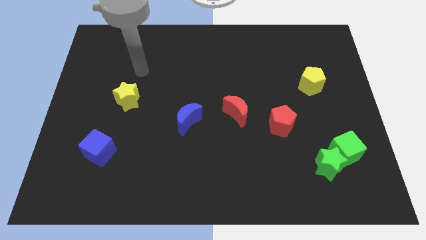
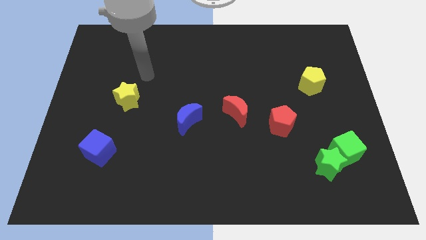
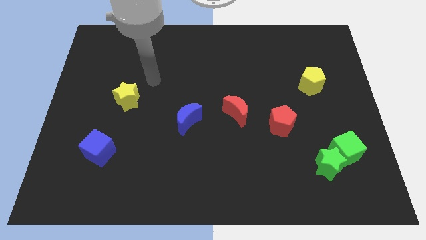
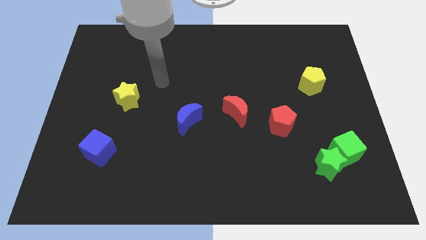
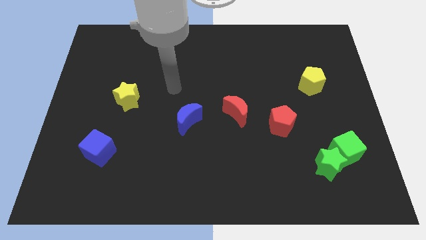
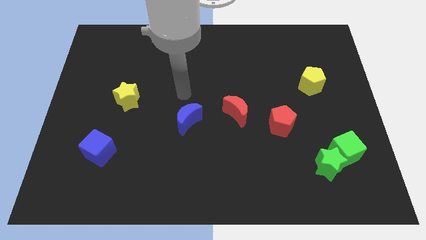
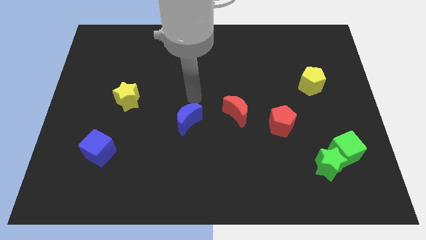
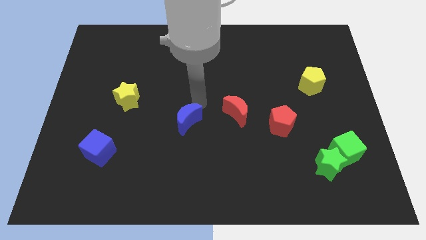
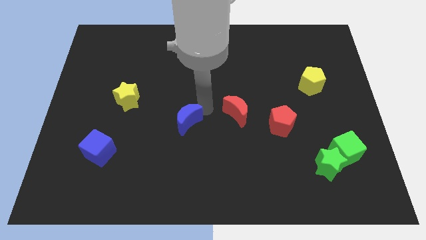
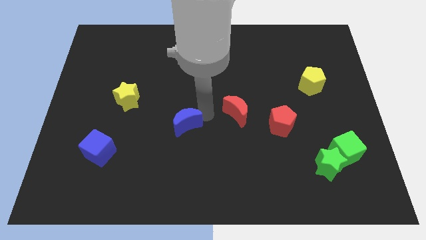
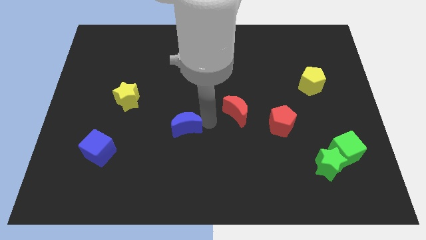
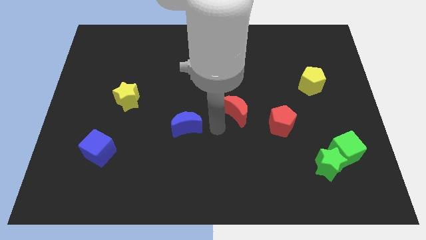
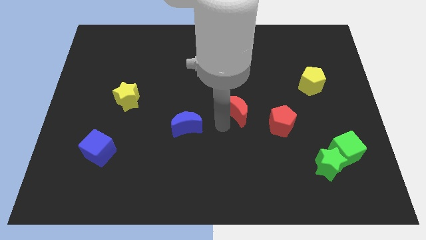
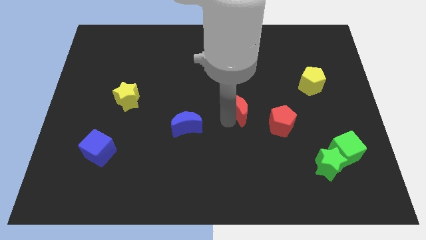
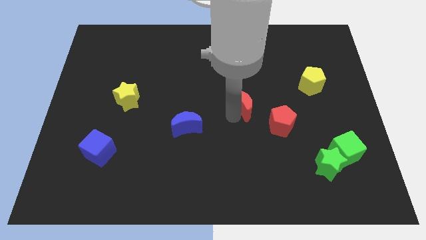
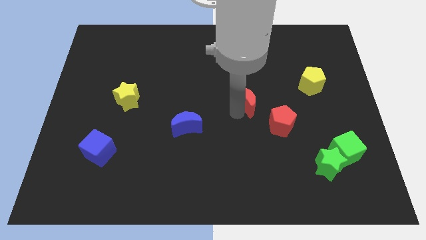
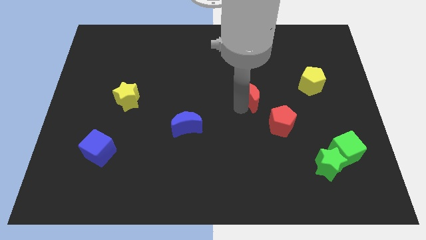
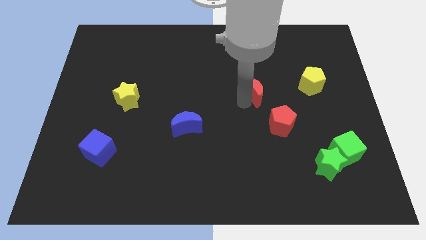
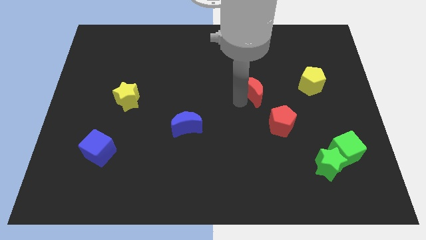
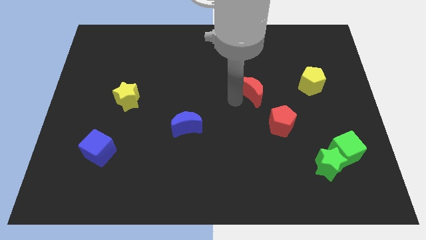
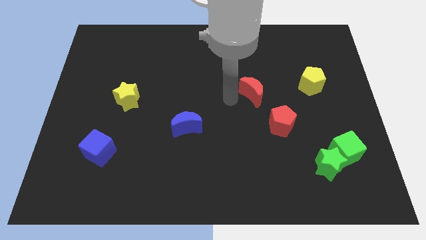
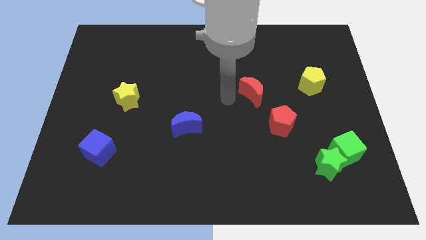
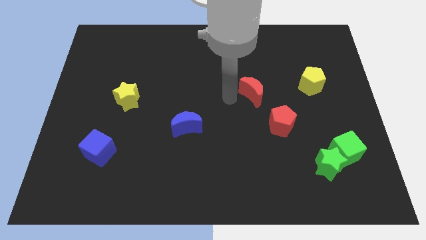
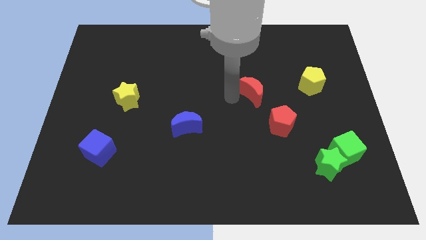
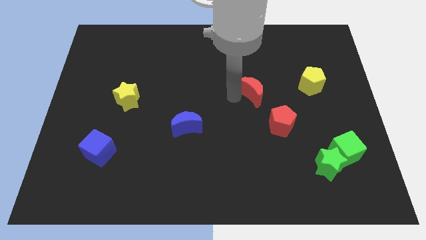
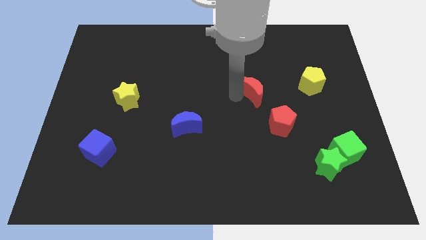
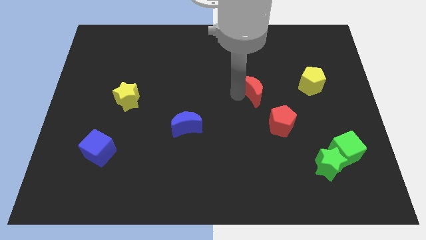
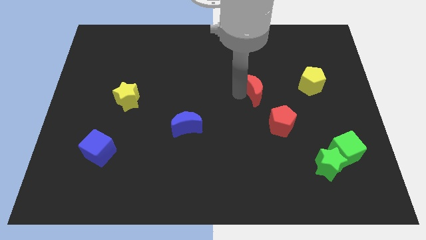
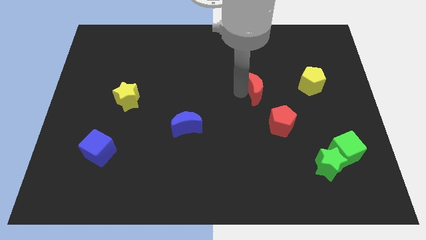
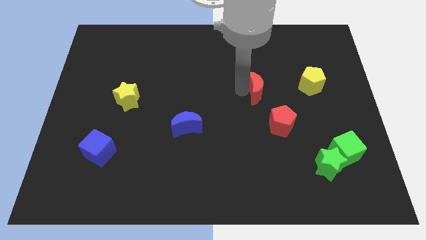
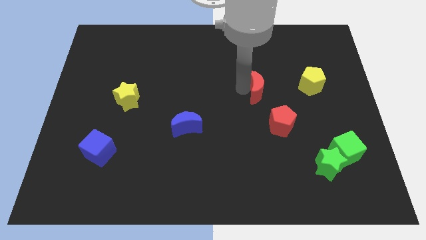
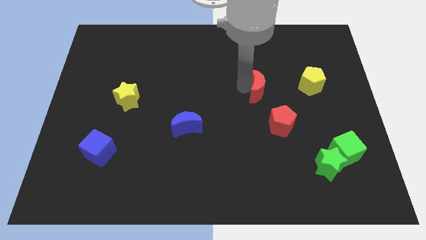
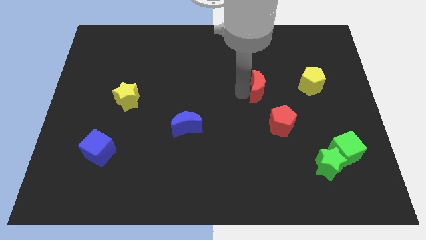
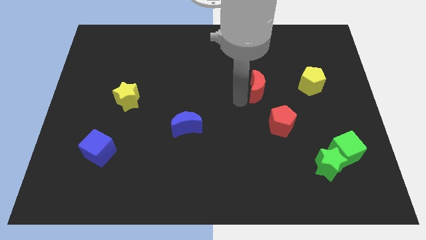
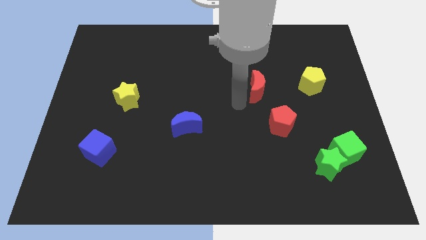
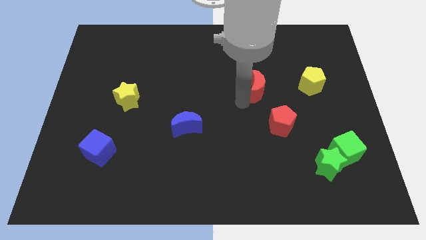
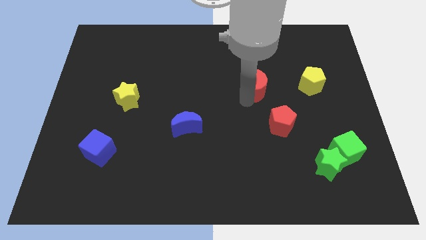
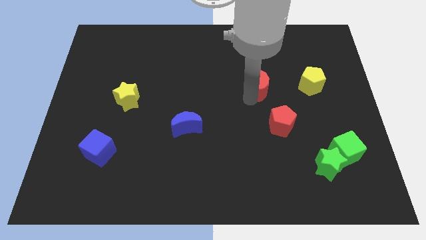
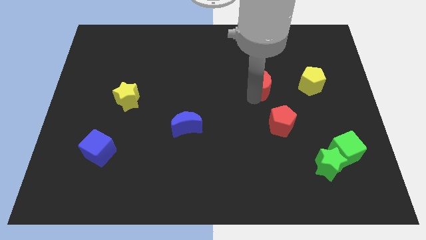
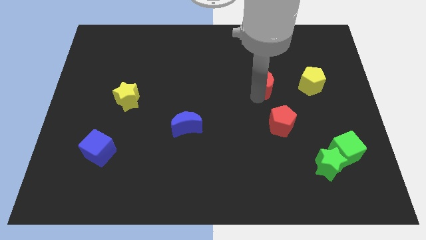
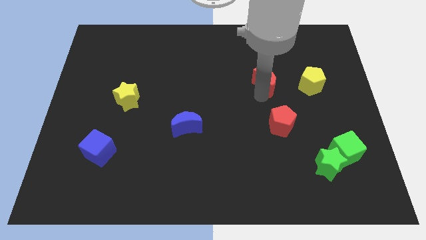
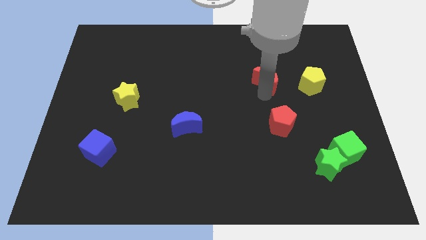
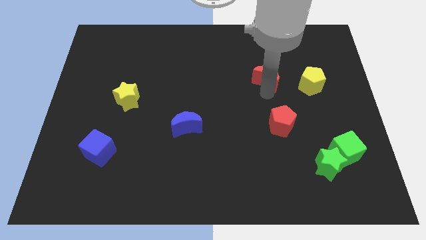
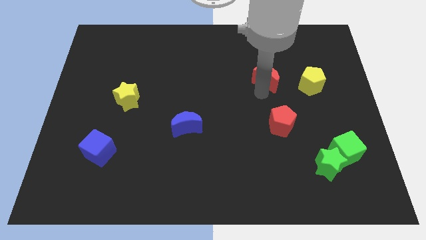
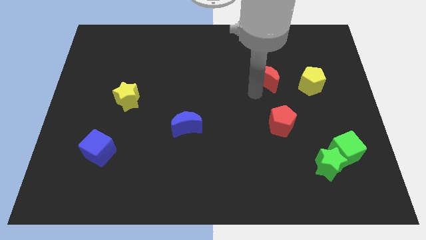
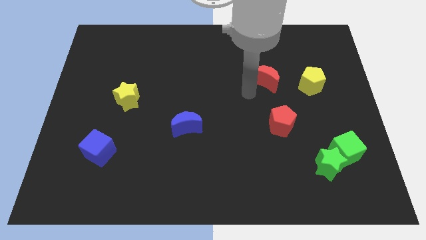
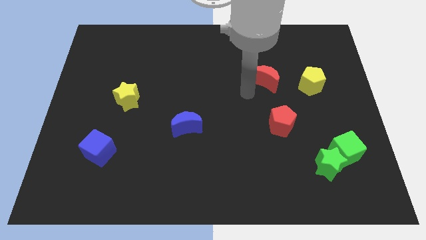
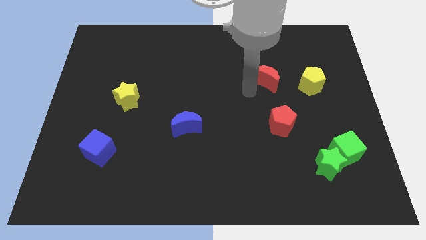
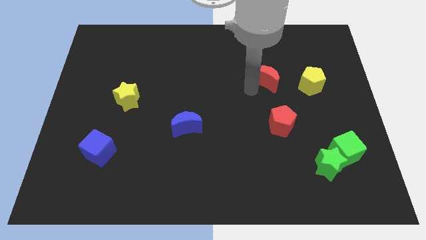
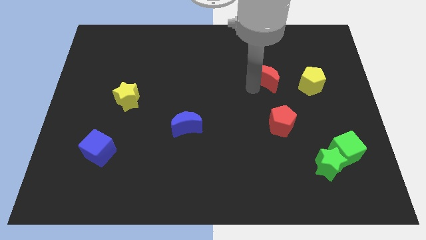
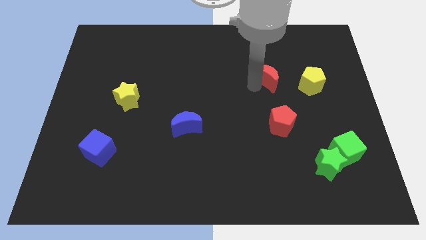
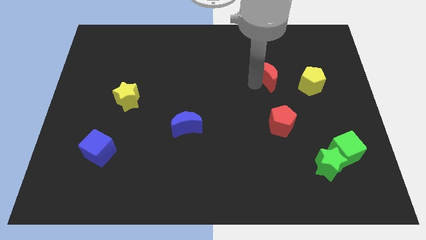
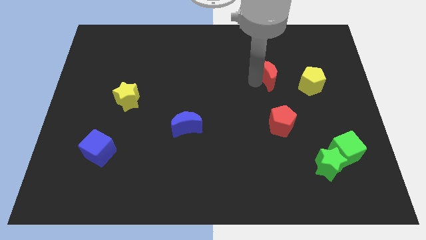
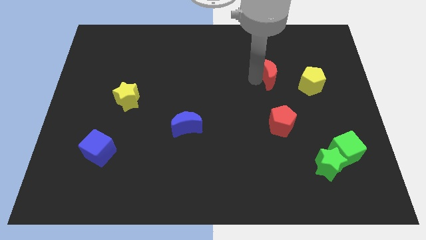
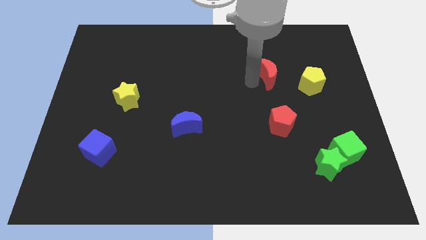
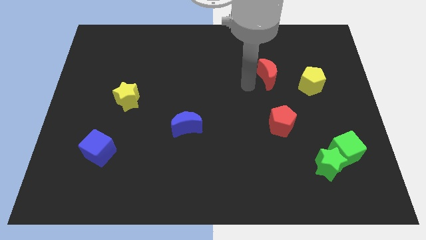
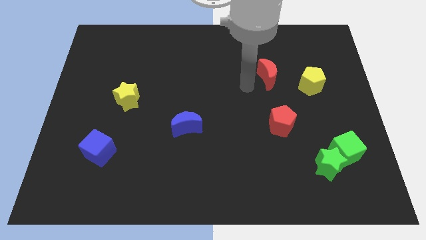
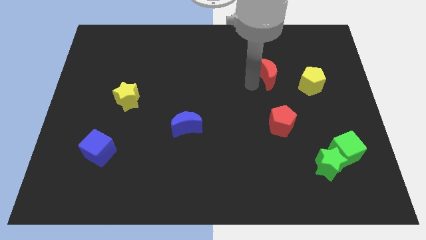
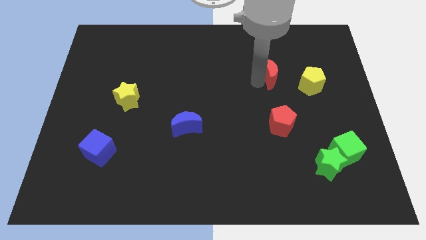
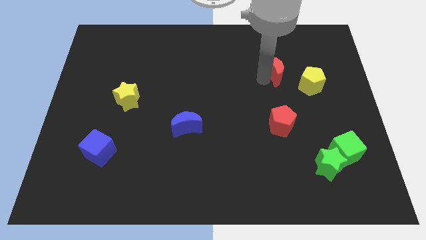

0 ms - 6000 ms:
slide the red moon diagonally up and to the left of the yellow pentagon

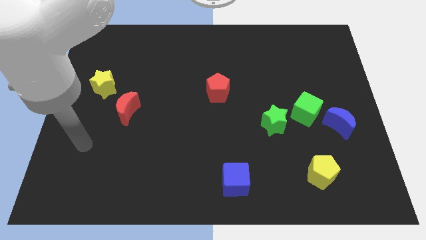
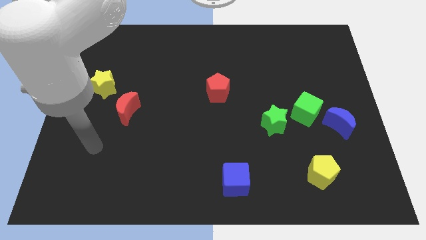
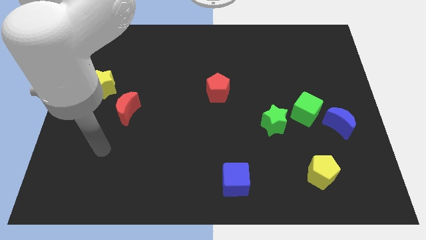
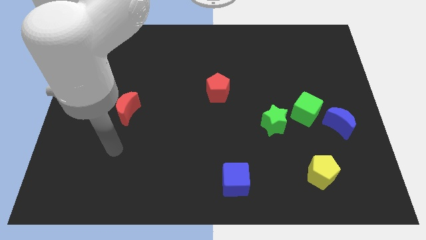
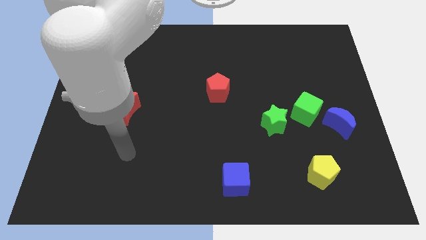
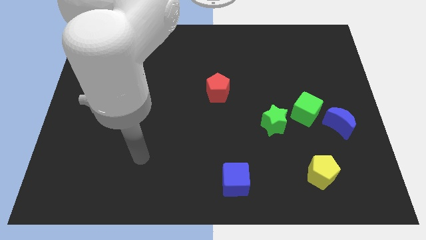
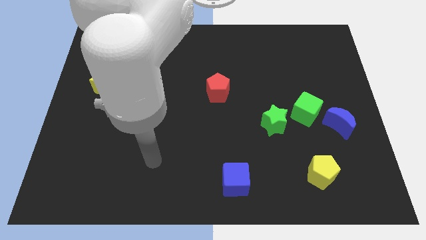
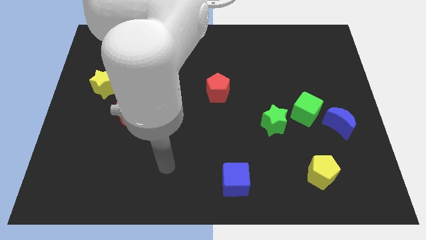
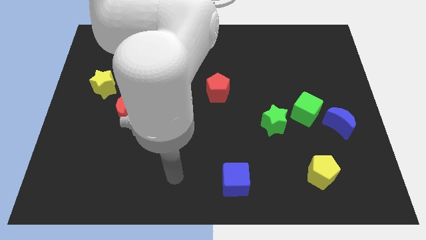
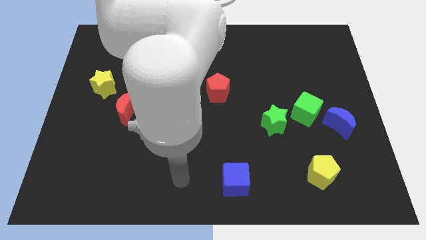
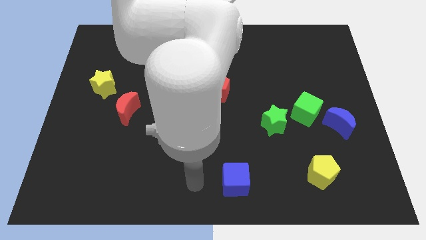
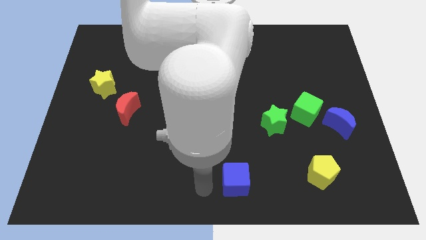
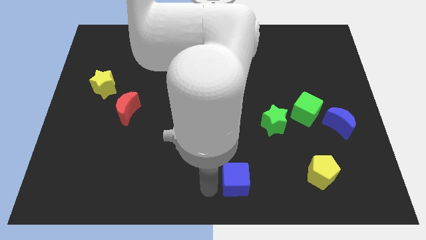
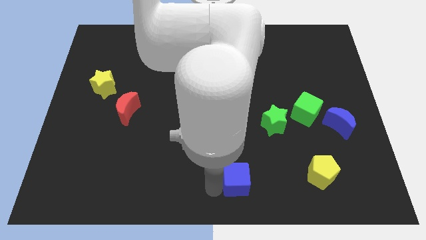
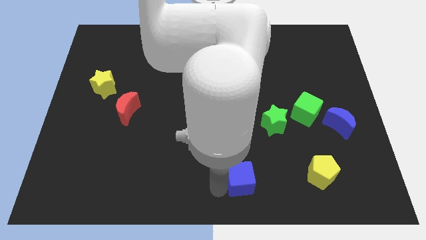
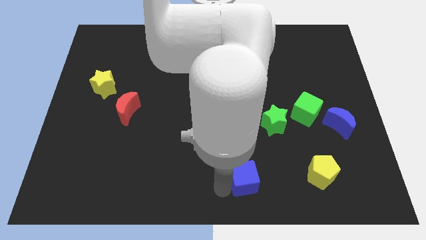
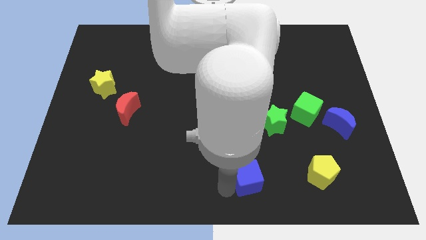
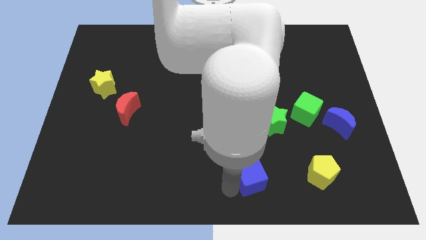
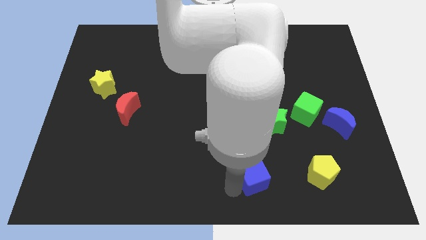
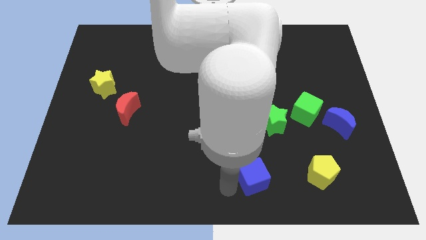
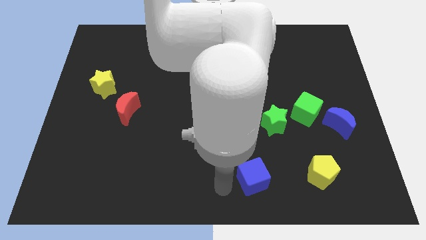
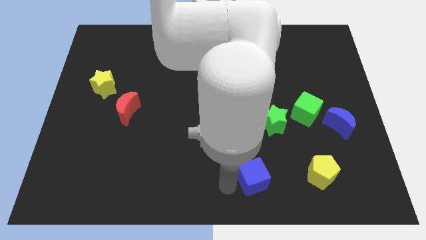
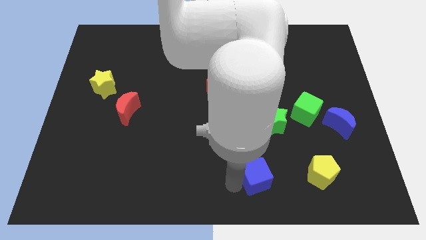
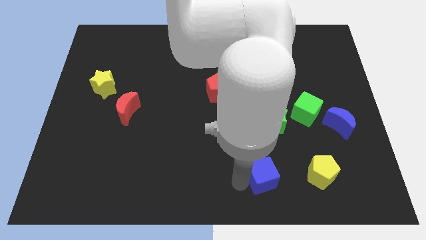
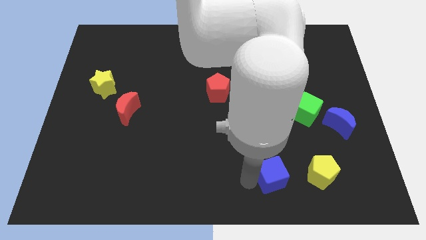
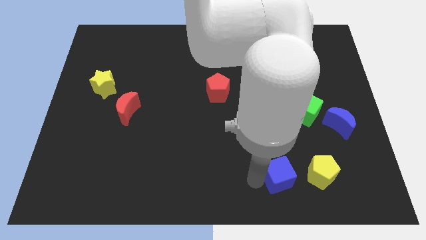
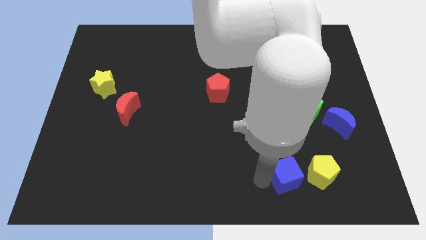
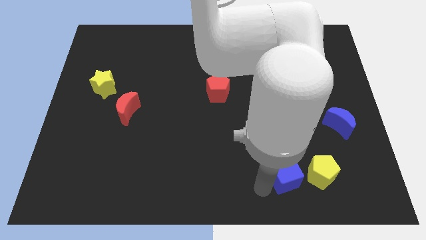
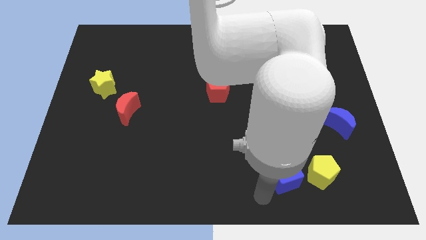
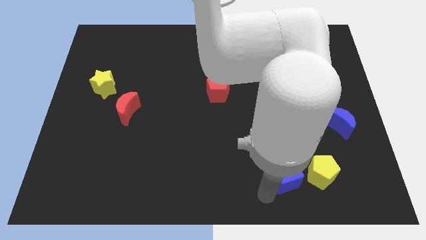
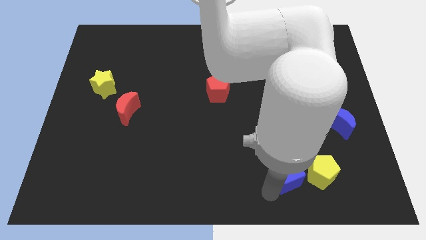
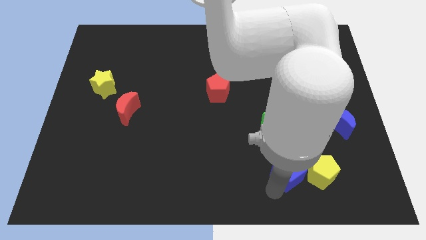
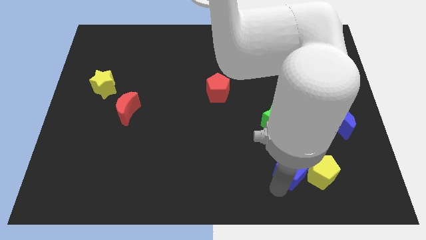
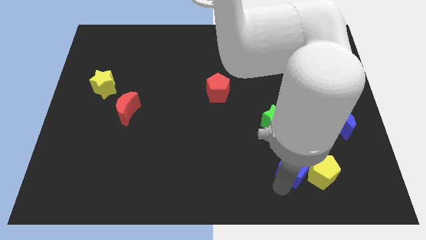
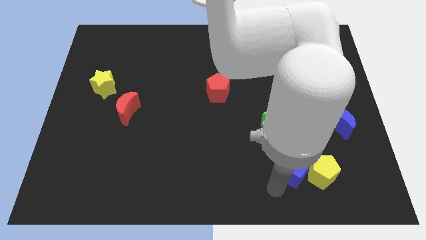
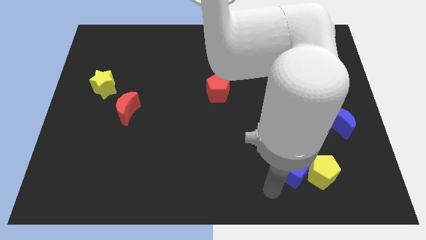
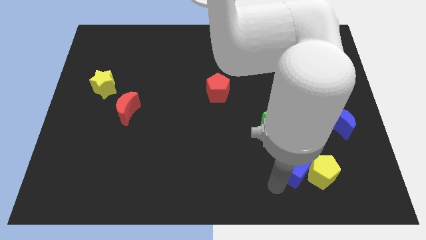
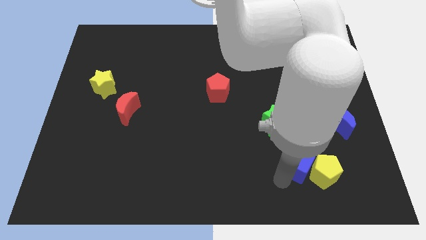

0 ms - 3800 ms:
move the blue cube to the bottom of the green cube
